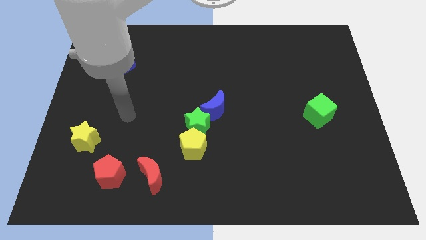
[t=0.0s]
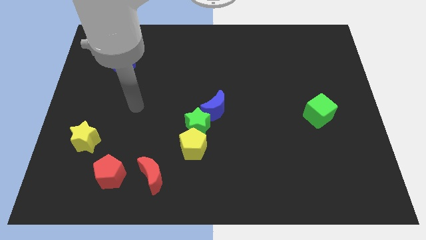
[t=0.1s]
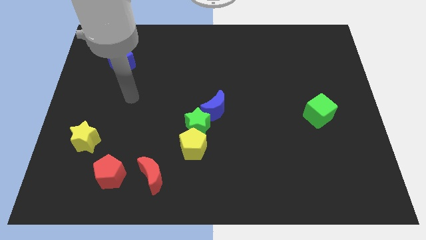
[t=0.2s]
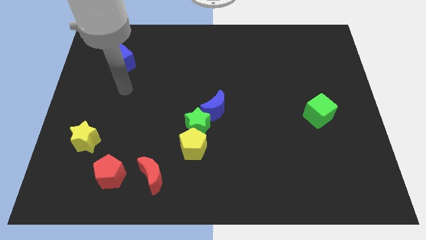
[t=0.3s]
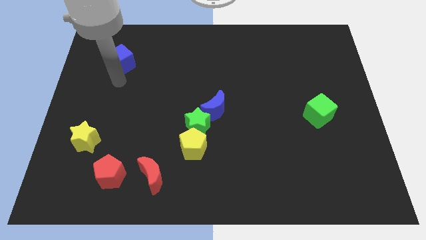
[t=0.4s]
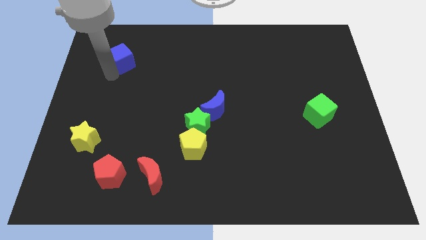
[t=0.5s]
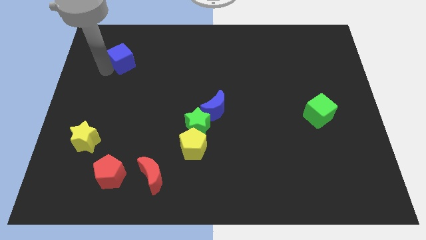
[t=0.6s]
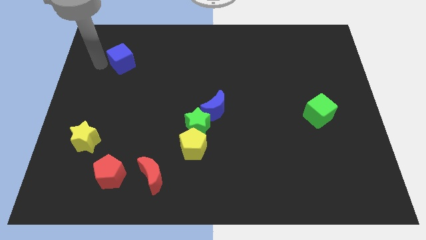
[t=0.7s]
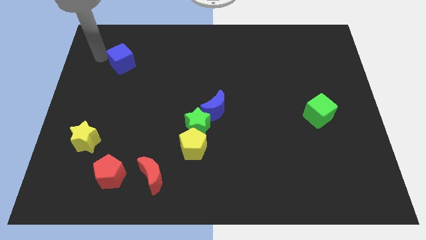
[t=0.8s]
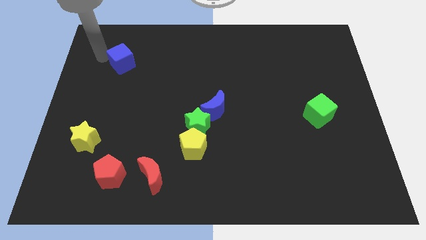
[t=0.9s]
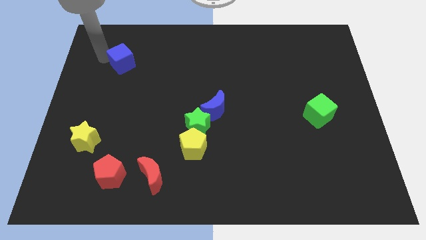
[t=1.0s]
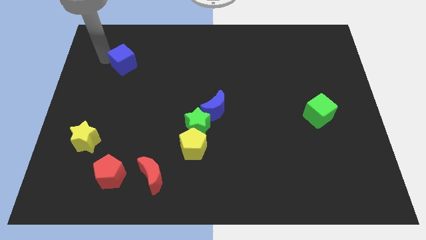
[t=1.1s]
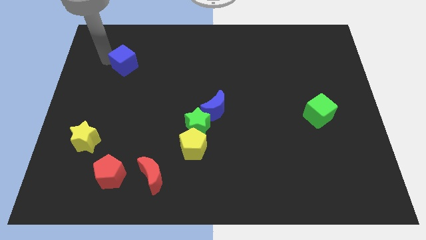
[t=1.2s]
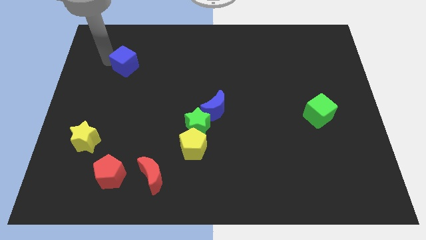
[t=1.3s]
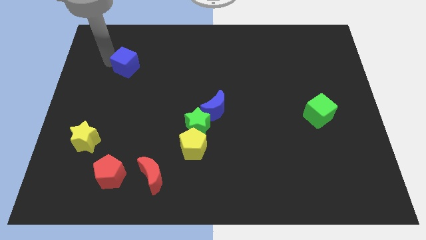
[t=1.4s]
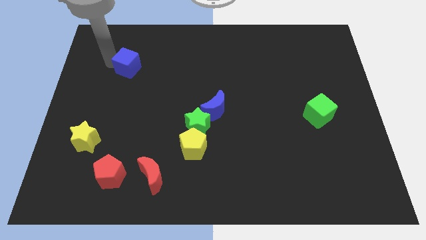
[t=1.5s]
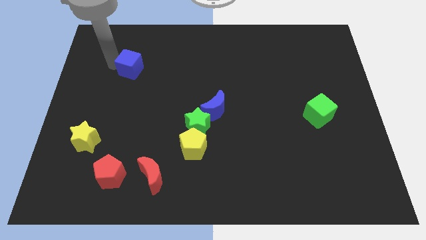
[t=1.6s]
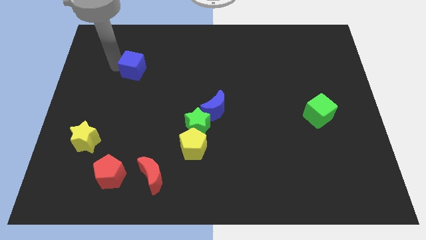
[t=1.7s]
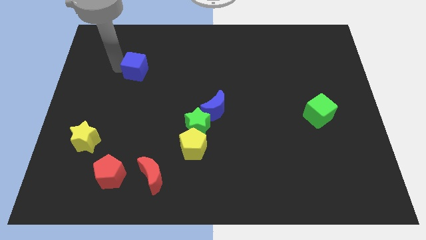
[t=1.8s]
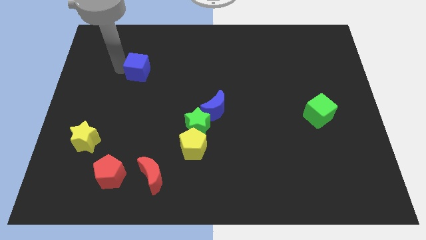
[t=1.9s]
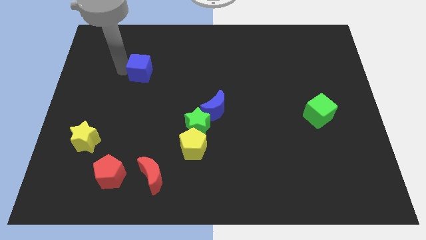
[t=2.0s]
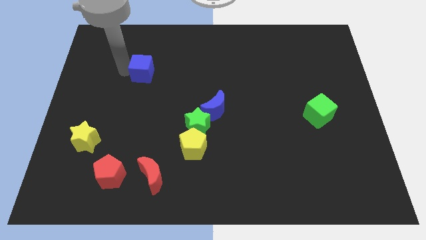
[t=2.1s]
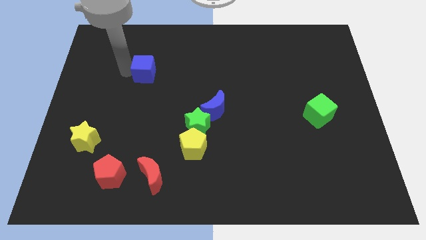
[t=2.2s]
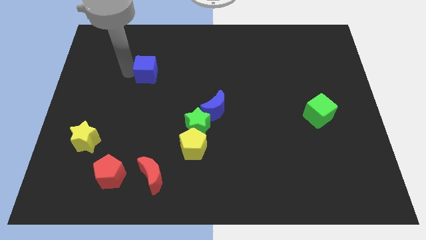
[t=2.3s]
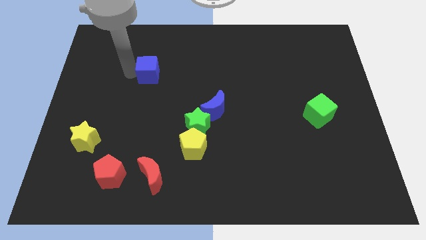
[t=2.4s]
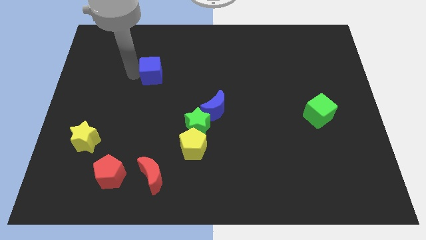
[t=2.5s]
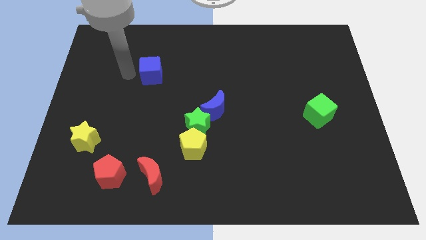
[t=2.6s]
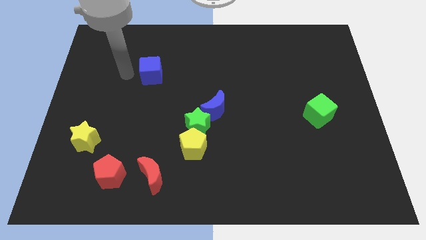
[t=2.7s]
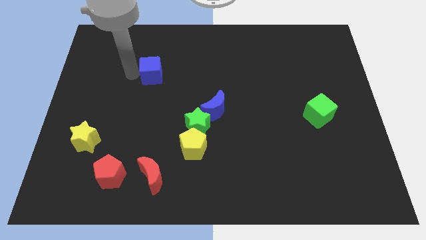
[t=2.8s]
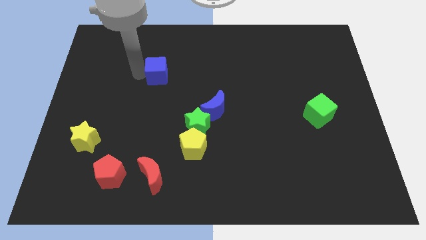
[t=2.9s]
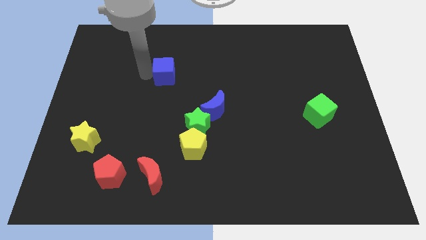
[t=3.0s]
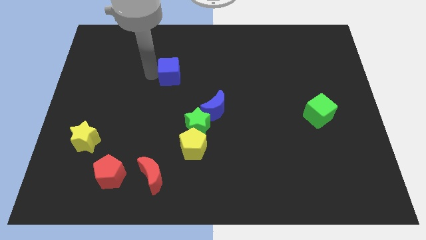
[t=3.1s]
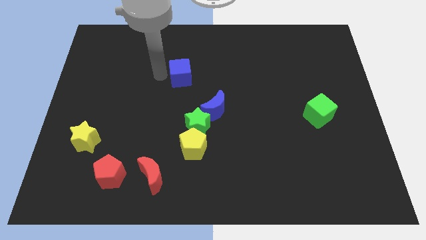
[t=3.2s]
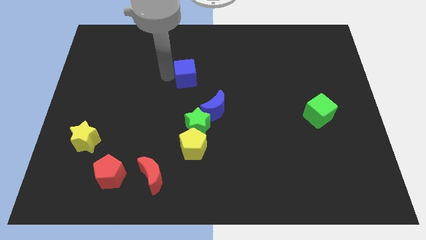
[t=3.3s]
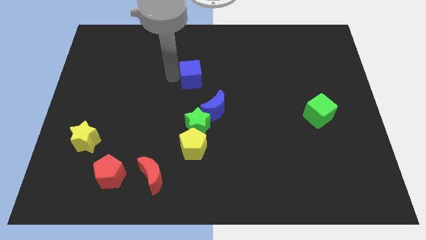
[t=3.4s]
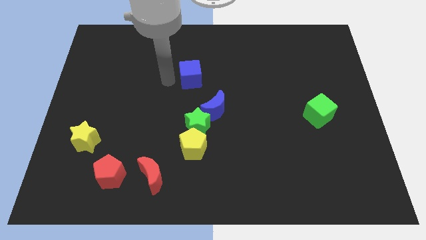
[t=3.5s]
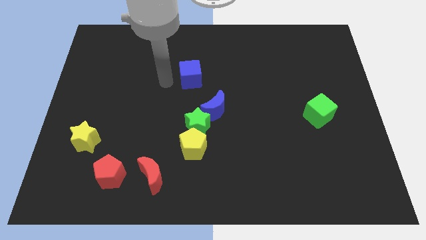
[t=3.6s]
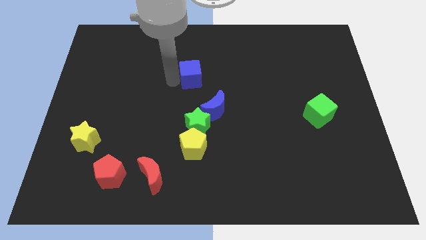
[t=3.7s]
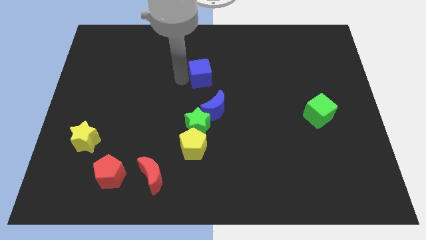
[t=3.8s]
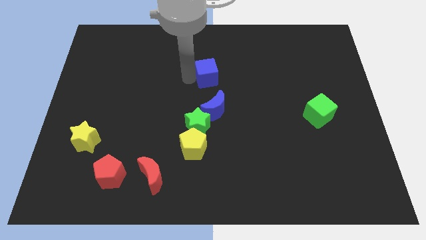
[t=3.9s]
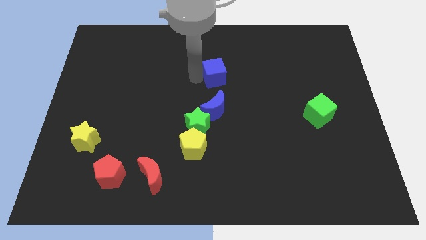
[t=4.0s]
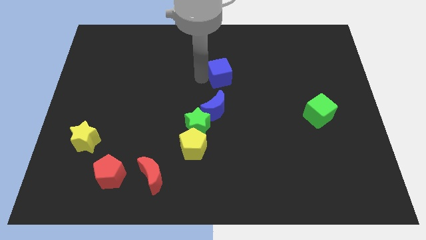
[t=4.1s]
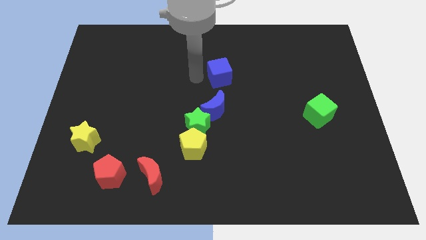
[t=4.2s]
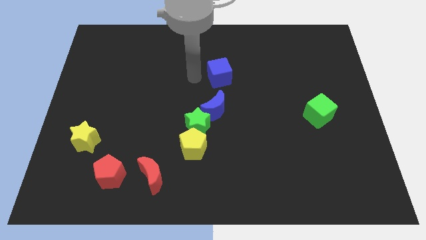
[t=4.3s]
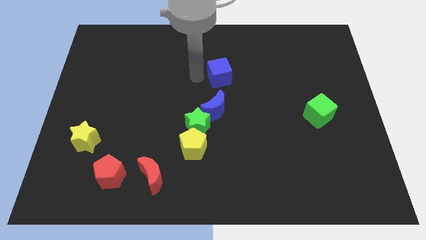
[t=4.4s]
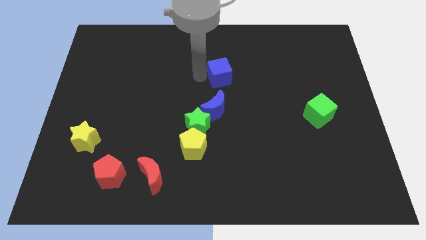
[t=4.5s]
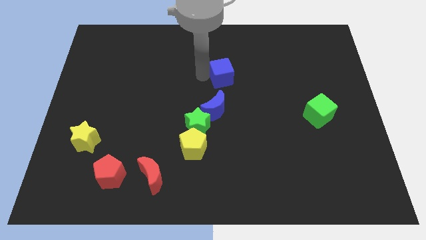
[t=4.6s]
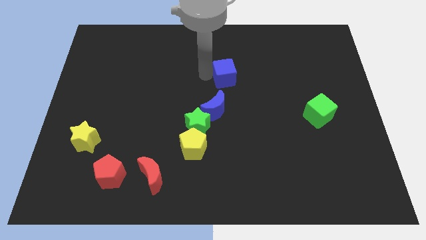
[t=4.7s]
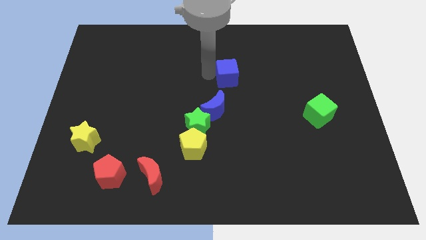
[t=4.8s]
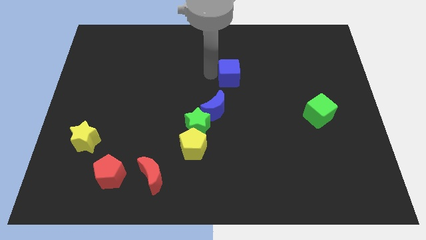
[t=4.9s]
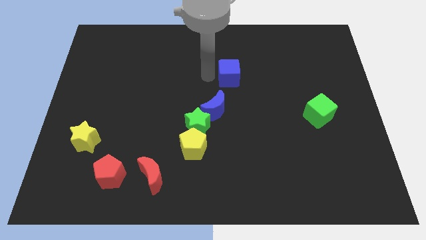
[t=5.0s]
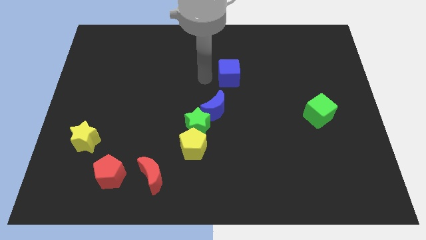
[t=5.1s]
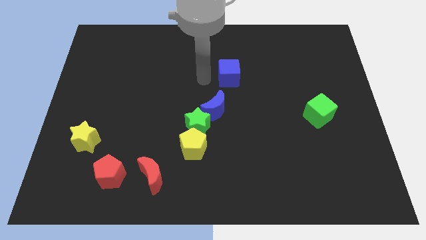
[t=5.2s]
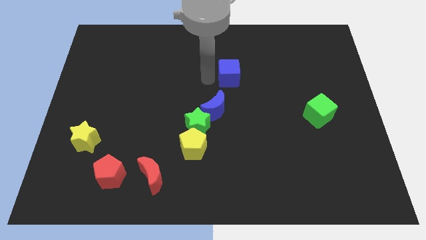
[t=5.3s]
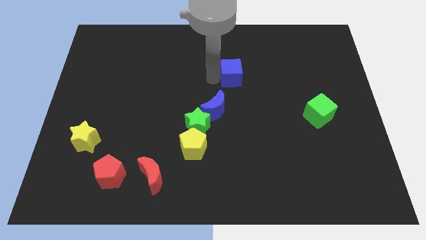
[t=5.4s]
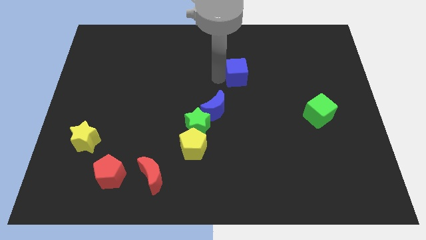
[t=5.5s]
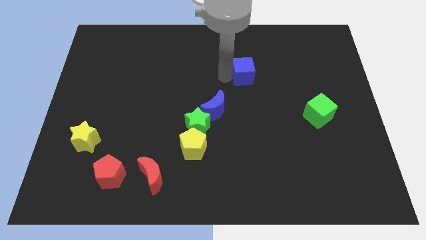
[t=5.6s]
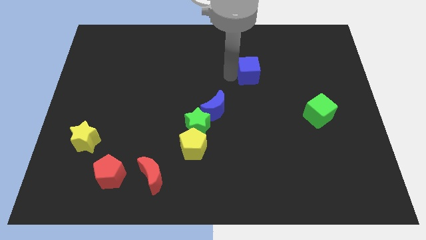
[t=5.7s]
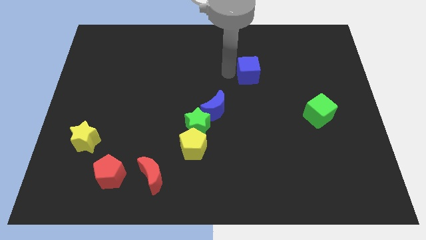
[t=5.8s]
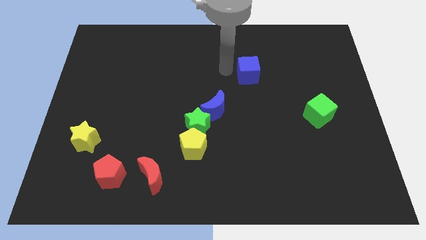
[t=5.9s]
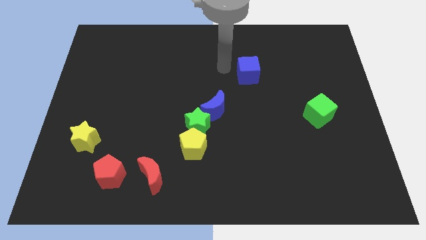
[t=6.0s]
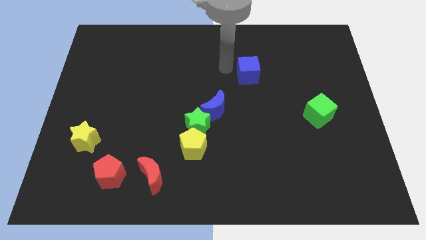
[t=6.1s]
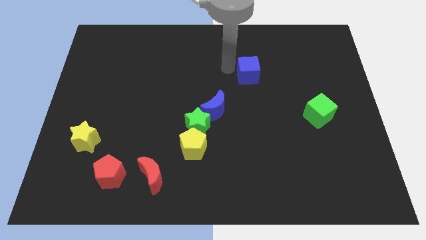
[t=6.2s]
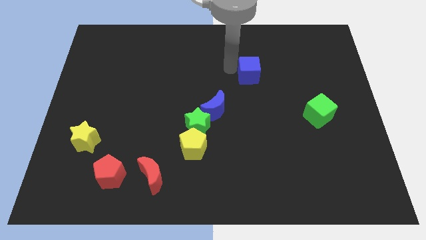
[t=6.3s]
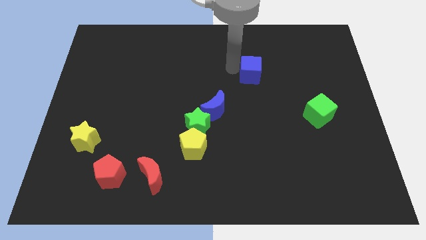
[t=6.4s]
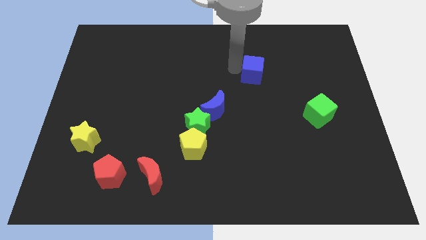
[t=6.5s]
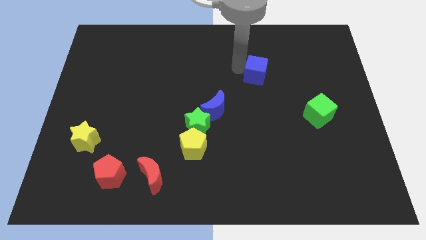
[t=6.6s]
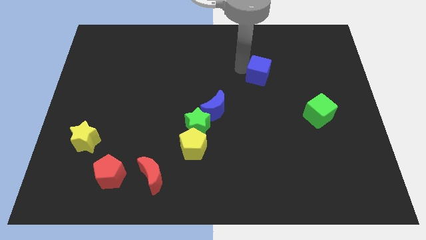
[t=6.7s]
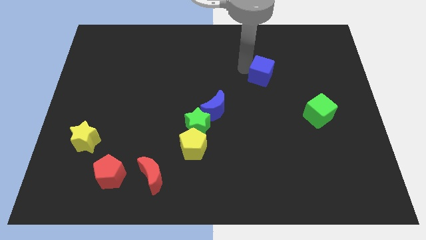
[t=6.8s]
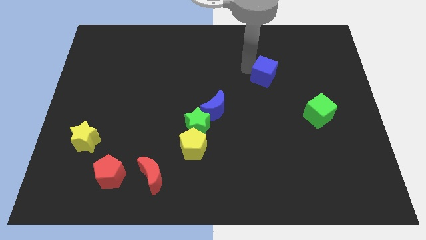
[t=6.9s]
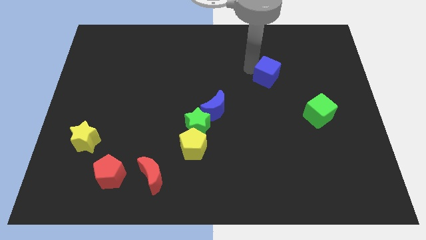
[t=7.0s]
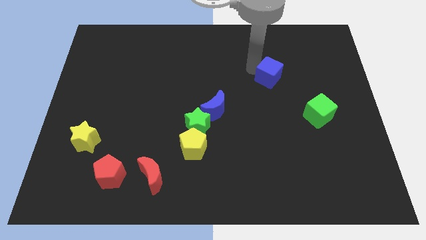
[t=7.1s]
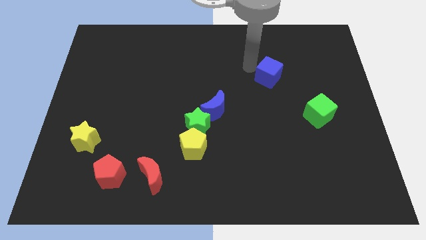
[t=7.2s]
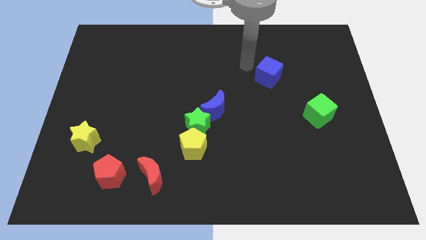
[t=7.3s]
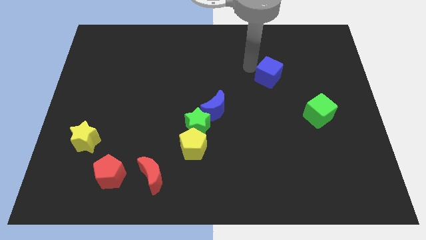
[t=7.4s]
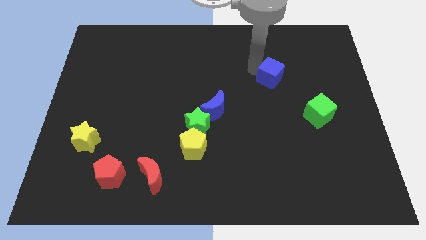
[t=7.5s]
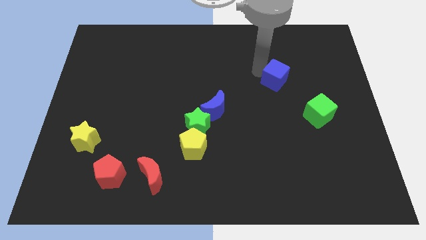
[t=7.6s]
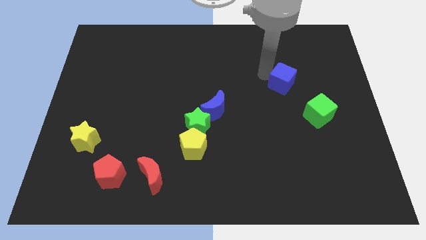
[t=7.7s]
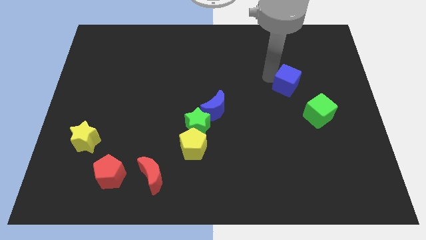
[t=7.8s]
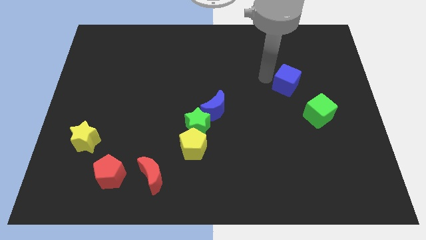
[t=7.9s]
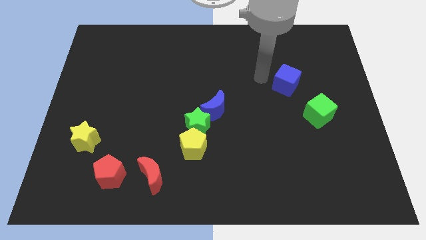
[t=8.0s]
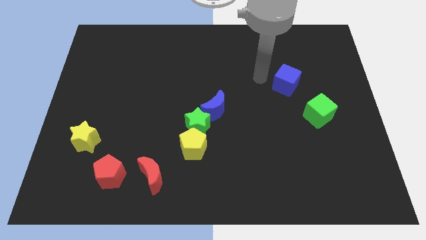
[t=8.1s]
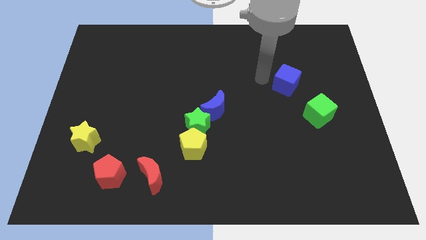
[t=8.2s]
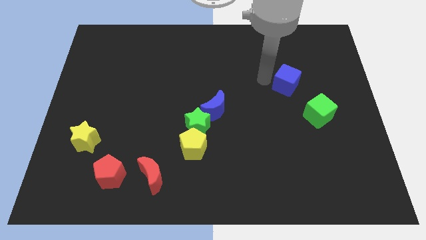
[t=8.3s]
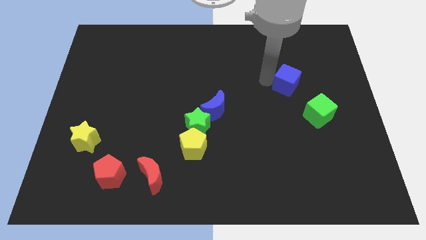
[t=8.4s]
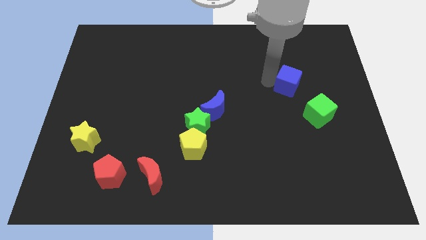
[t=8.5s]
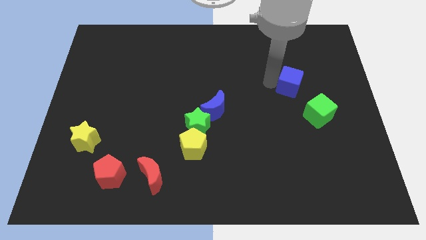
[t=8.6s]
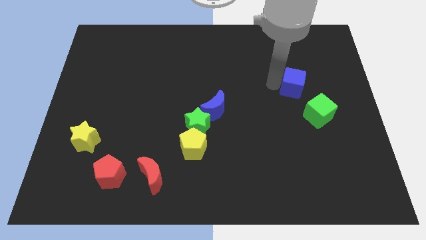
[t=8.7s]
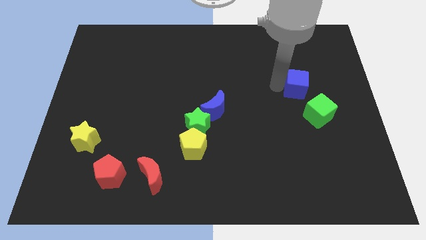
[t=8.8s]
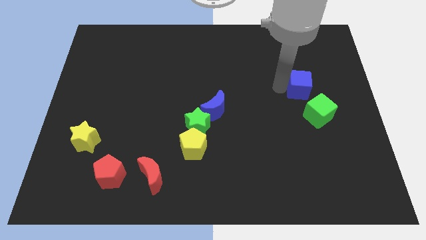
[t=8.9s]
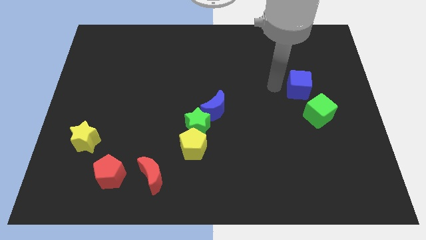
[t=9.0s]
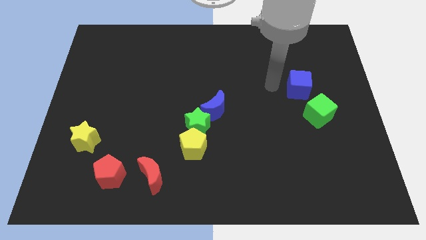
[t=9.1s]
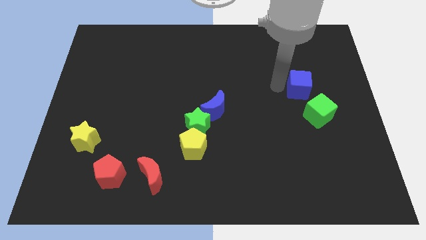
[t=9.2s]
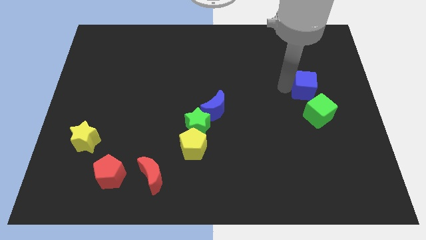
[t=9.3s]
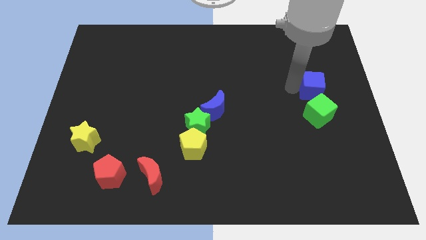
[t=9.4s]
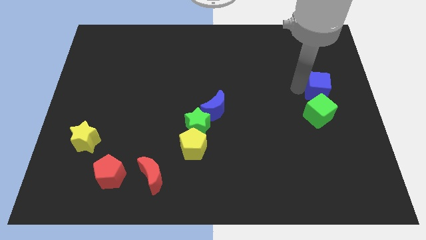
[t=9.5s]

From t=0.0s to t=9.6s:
move the blue cube to the center right
